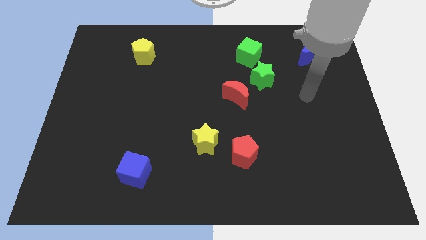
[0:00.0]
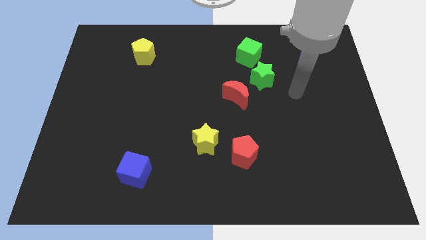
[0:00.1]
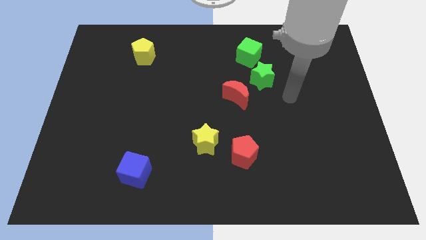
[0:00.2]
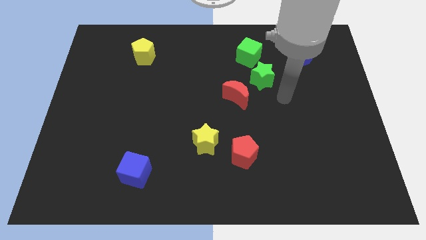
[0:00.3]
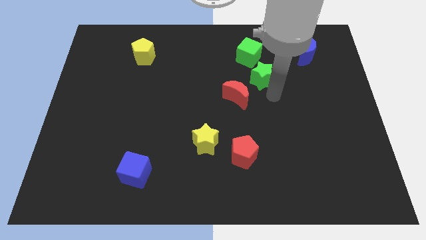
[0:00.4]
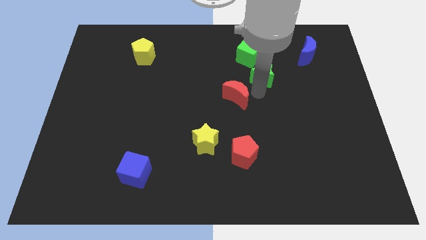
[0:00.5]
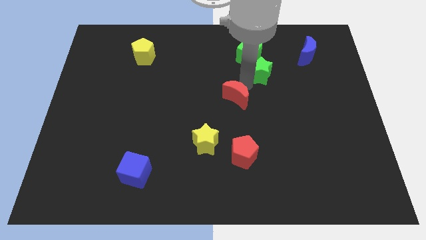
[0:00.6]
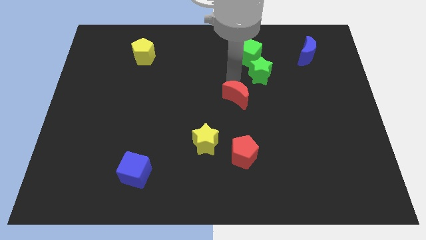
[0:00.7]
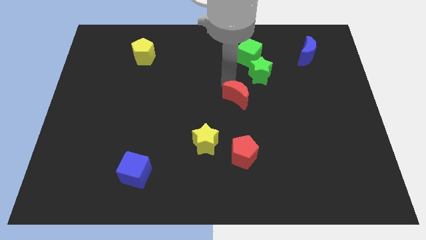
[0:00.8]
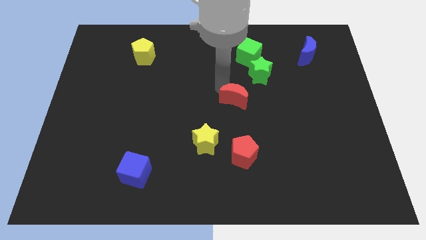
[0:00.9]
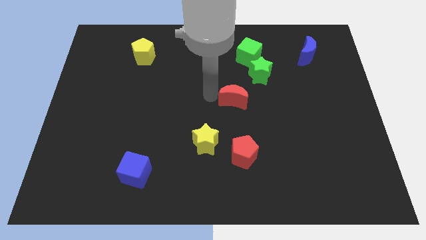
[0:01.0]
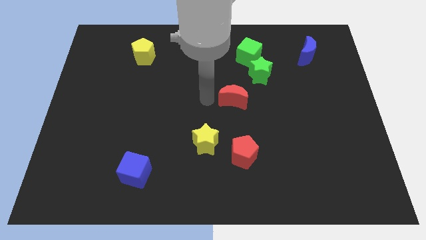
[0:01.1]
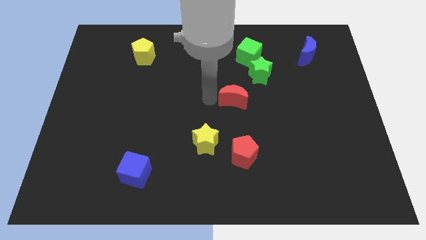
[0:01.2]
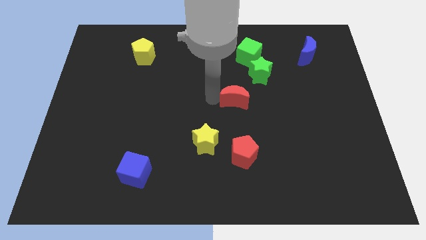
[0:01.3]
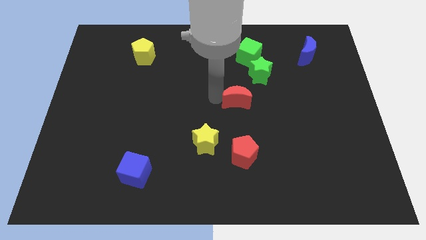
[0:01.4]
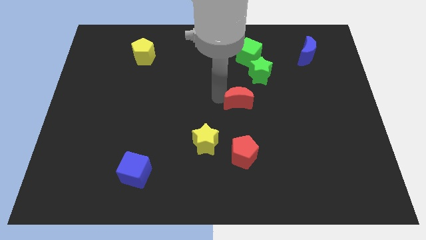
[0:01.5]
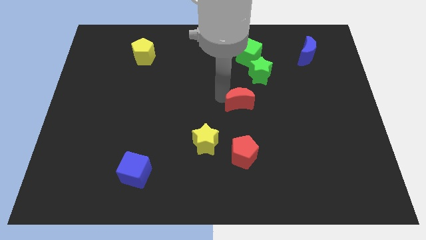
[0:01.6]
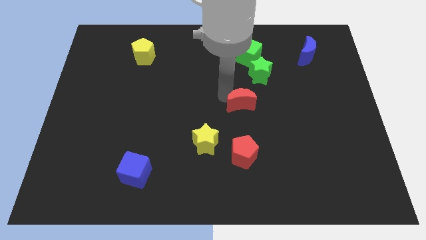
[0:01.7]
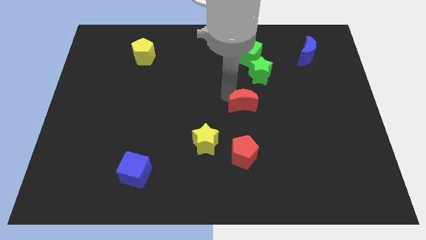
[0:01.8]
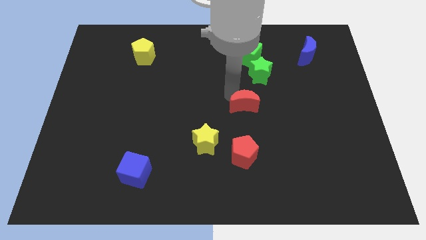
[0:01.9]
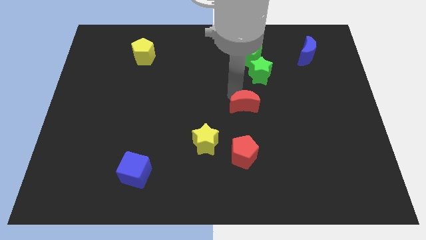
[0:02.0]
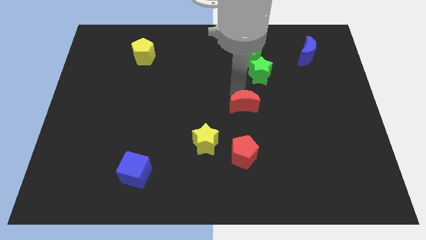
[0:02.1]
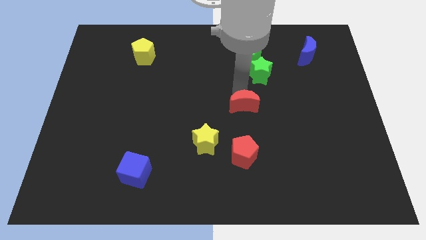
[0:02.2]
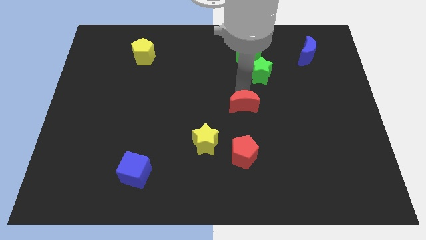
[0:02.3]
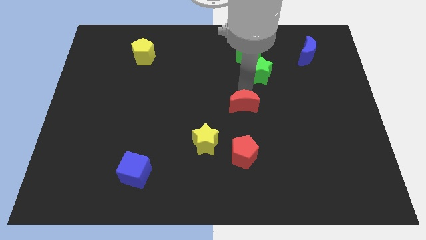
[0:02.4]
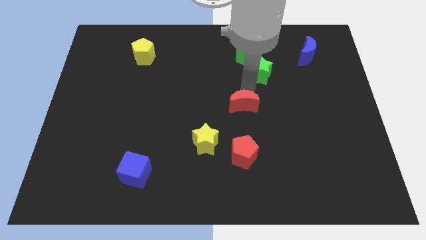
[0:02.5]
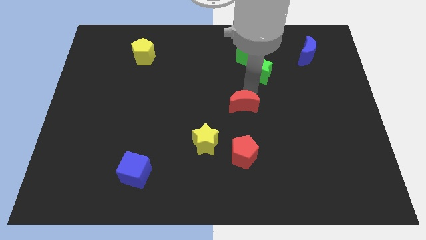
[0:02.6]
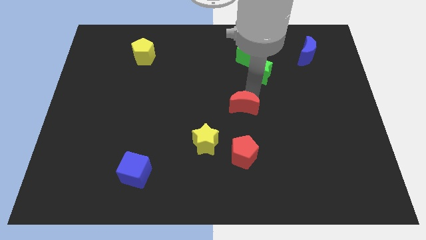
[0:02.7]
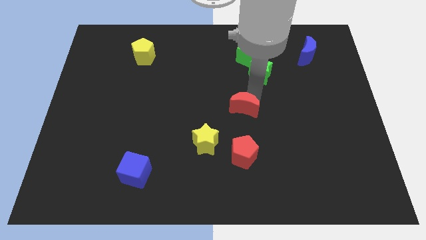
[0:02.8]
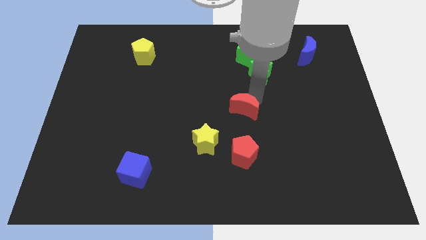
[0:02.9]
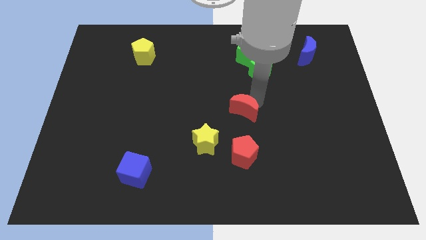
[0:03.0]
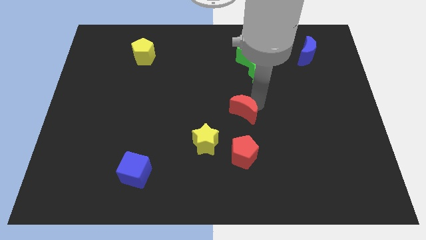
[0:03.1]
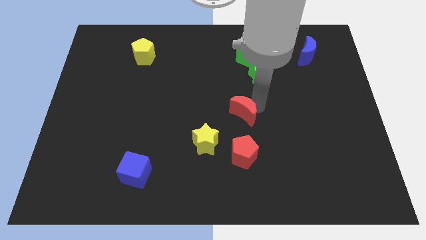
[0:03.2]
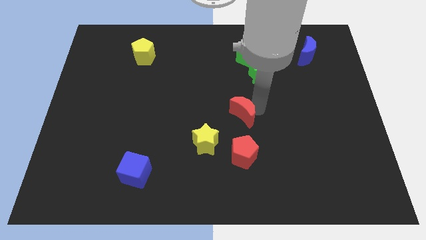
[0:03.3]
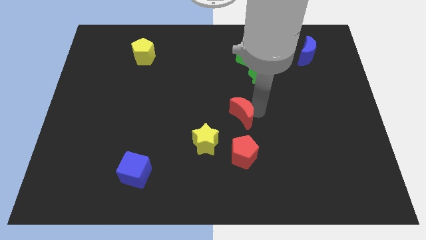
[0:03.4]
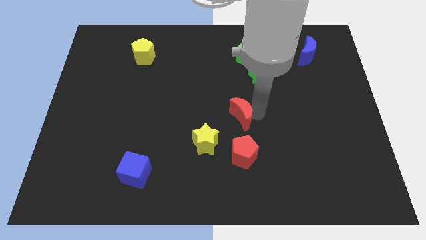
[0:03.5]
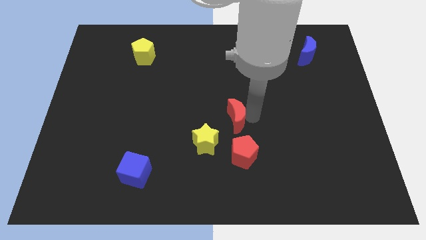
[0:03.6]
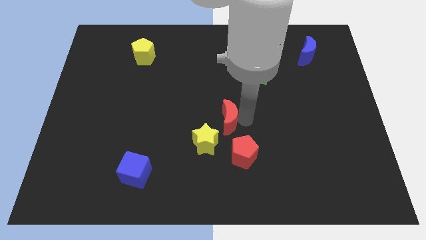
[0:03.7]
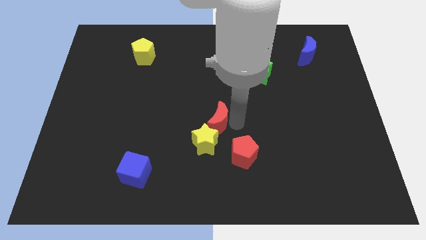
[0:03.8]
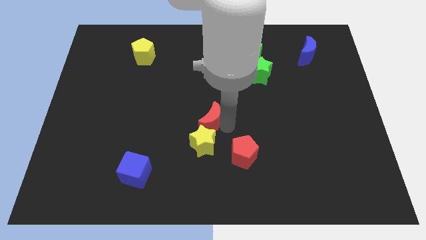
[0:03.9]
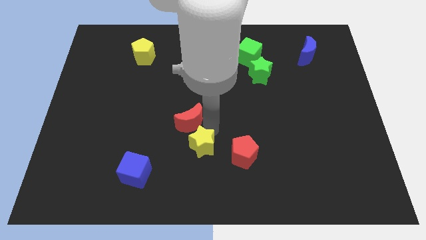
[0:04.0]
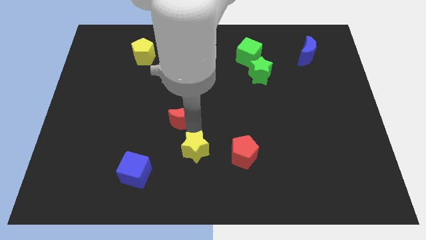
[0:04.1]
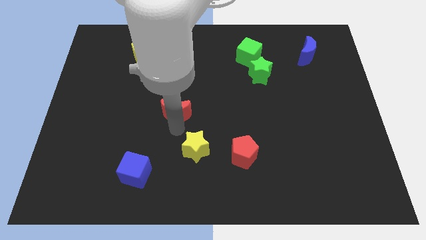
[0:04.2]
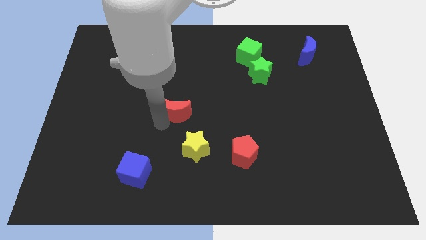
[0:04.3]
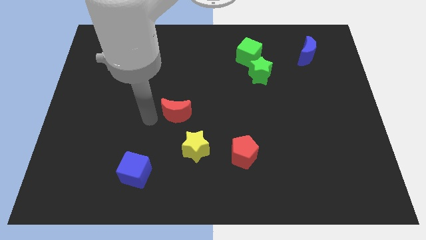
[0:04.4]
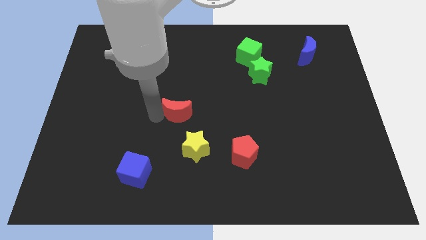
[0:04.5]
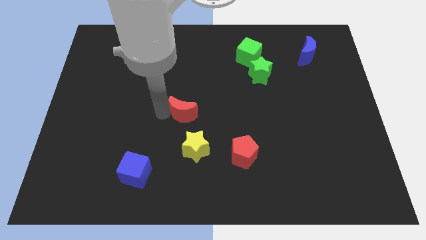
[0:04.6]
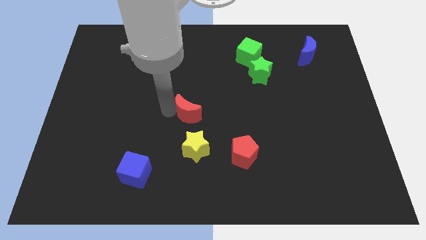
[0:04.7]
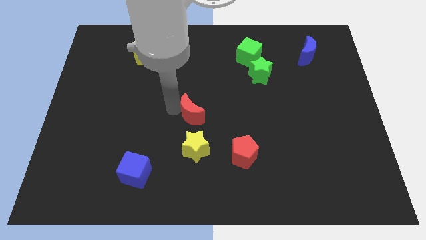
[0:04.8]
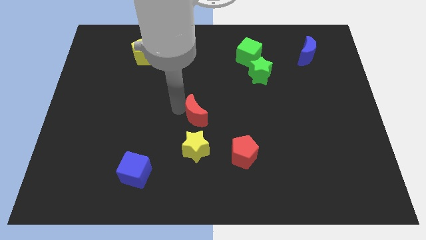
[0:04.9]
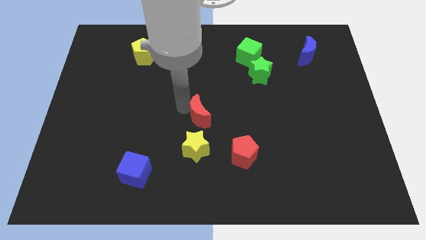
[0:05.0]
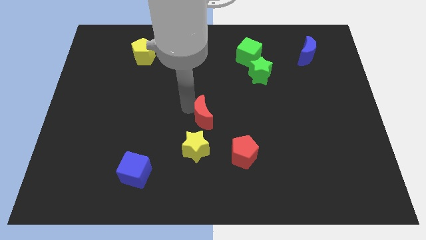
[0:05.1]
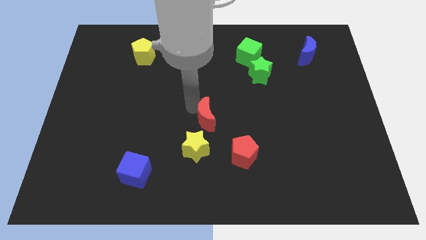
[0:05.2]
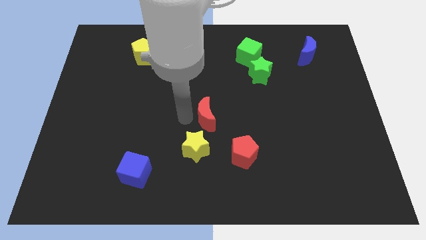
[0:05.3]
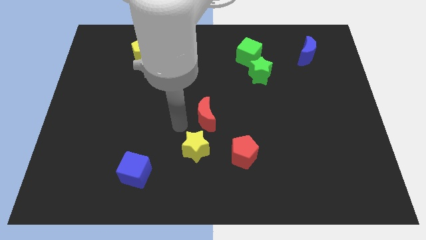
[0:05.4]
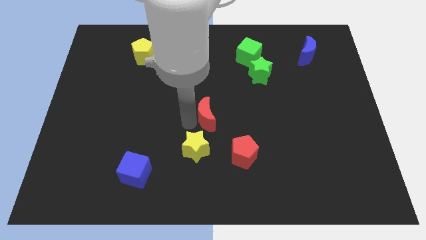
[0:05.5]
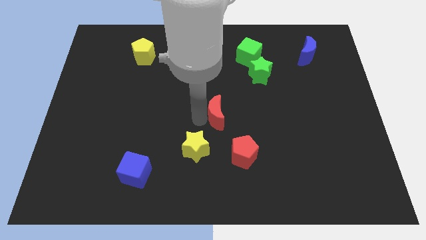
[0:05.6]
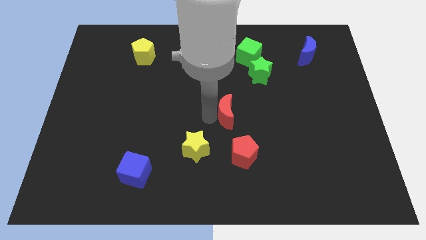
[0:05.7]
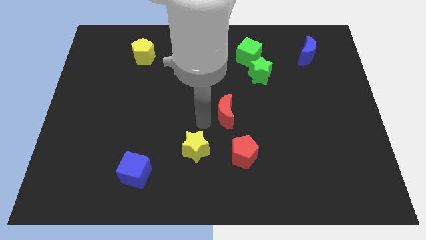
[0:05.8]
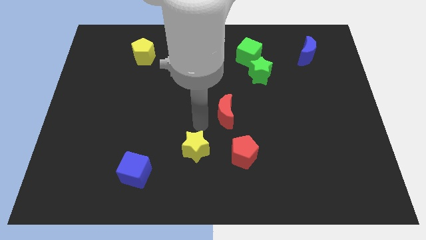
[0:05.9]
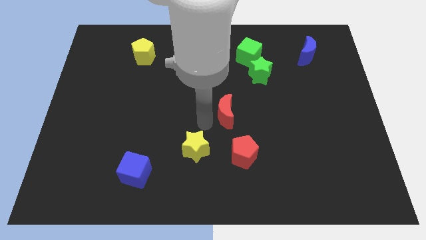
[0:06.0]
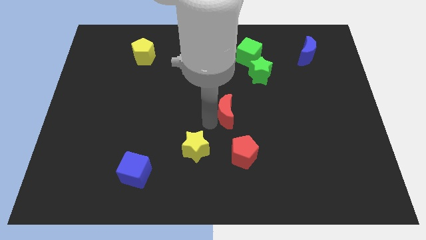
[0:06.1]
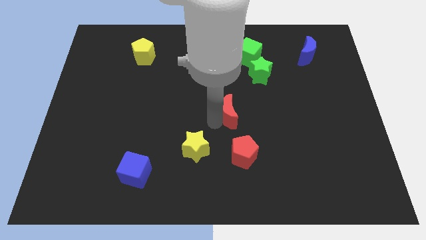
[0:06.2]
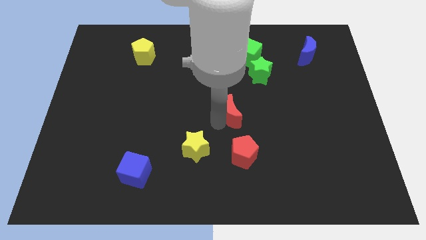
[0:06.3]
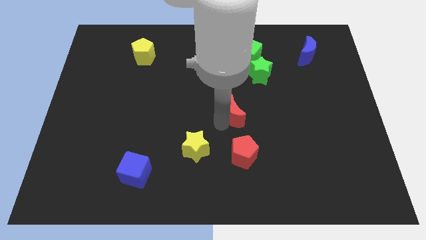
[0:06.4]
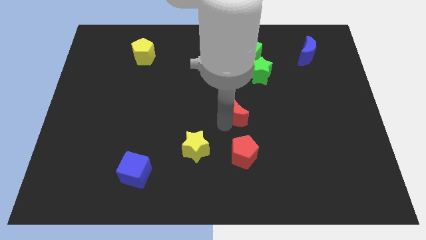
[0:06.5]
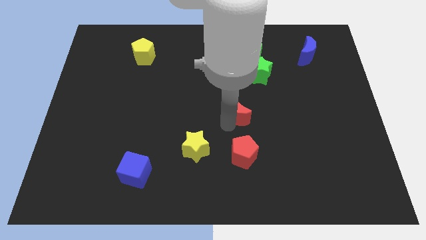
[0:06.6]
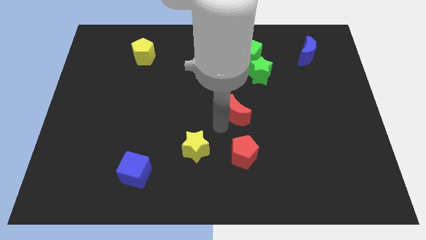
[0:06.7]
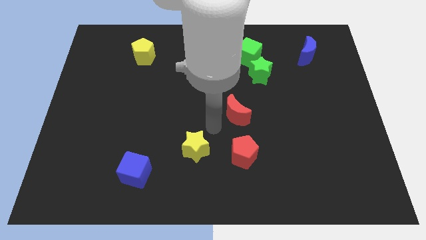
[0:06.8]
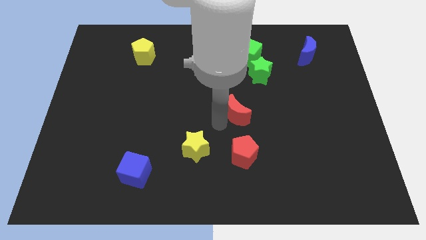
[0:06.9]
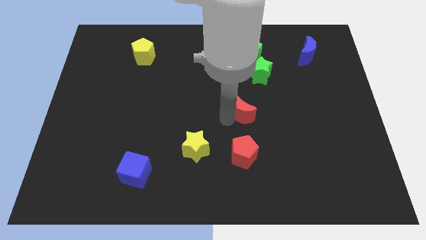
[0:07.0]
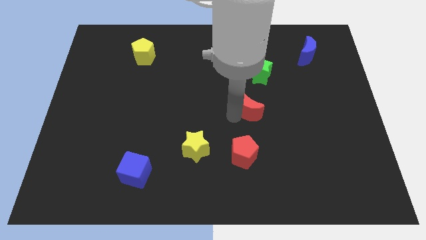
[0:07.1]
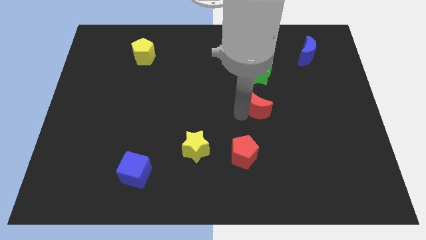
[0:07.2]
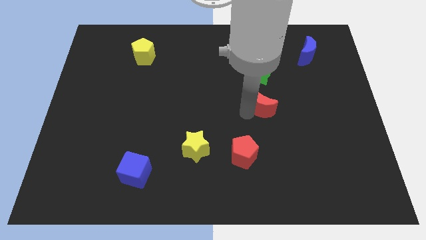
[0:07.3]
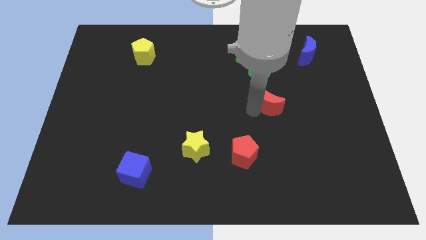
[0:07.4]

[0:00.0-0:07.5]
slightly move the red moon right
